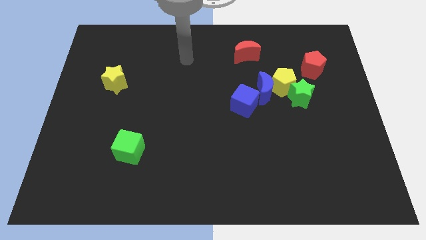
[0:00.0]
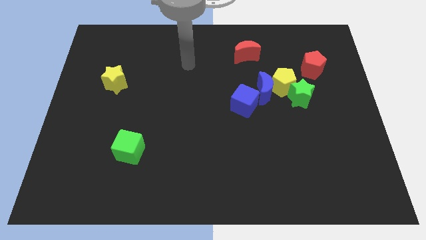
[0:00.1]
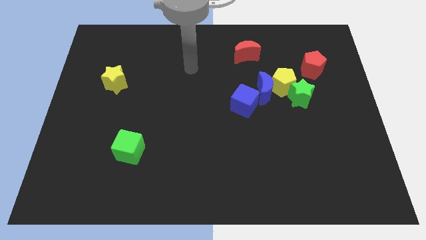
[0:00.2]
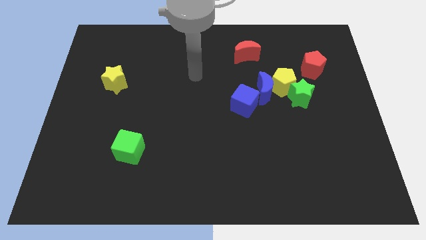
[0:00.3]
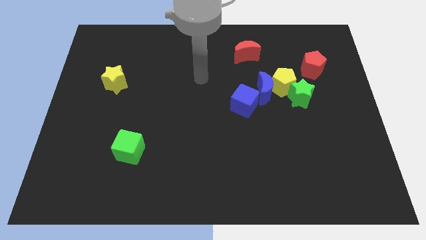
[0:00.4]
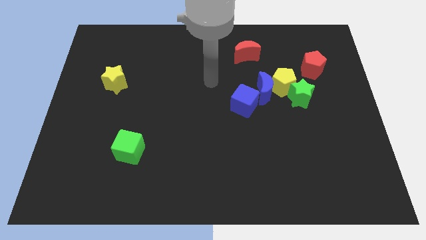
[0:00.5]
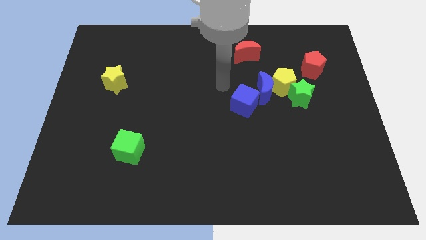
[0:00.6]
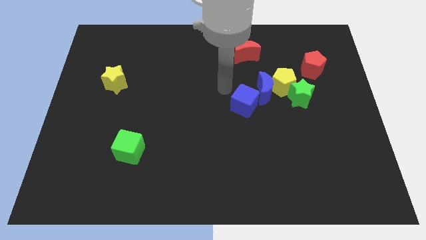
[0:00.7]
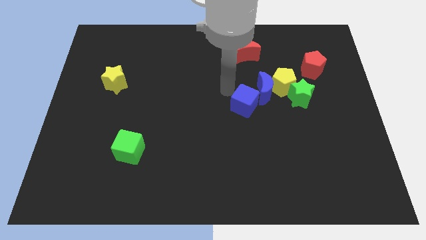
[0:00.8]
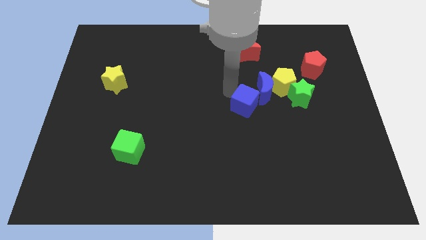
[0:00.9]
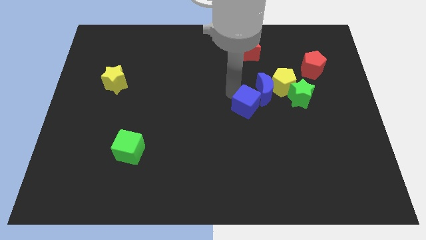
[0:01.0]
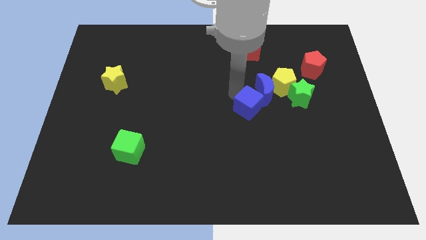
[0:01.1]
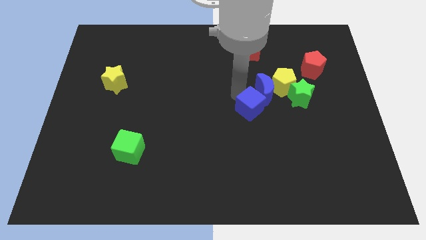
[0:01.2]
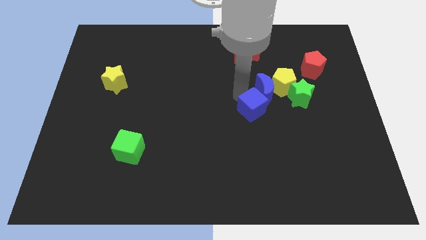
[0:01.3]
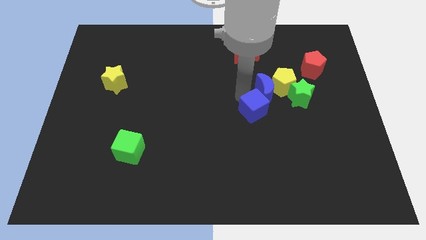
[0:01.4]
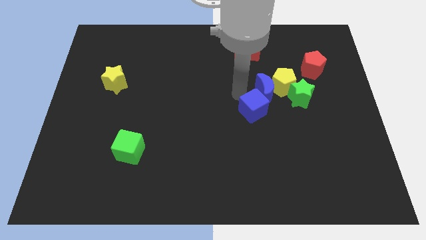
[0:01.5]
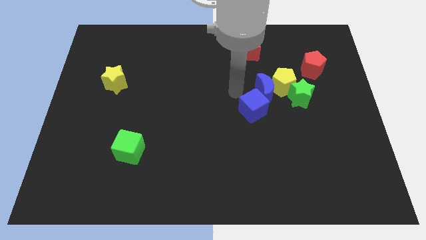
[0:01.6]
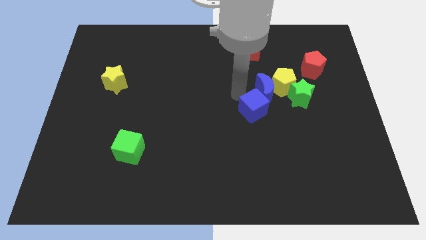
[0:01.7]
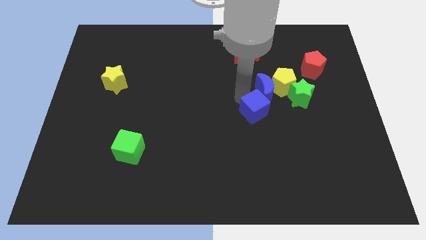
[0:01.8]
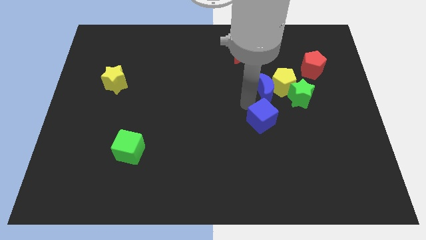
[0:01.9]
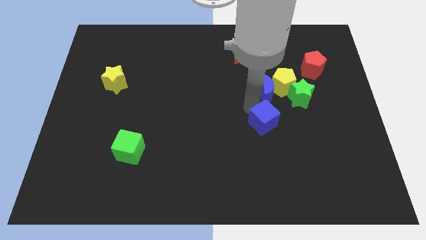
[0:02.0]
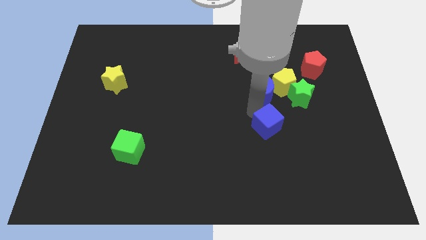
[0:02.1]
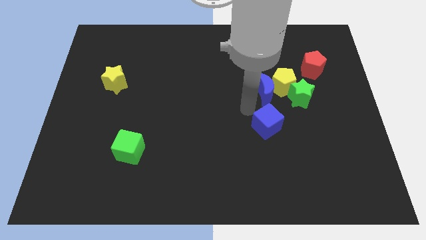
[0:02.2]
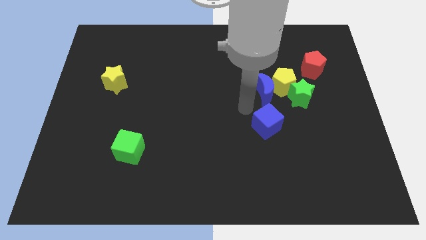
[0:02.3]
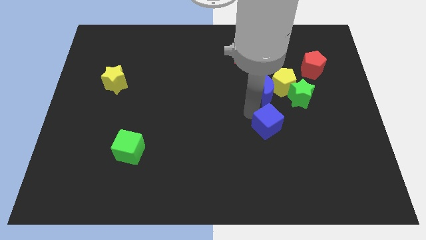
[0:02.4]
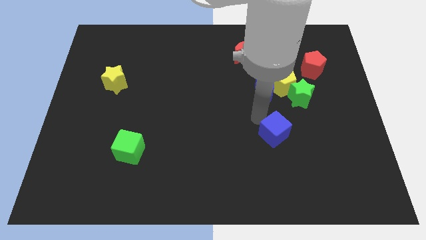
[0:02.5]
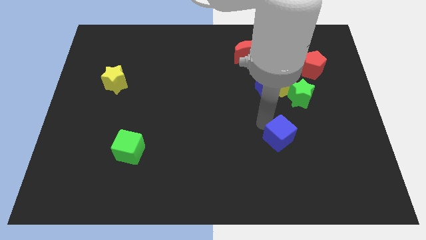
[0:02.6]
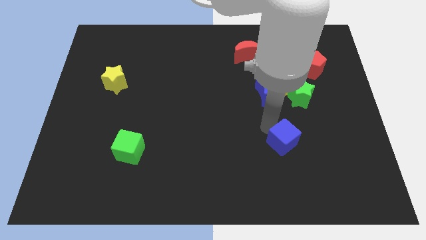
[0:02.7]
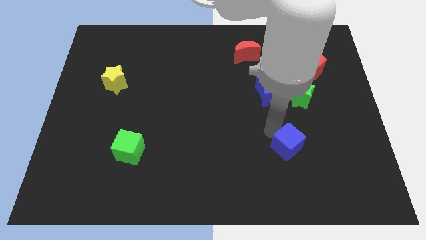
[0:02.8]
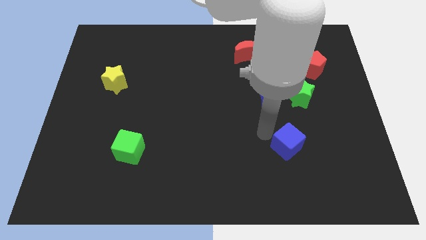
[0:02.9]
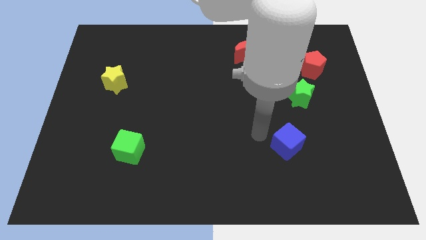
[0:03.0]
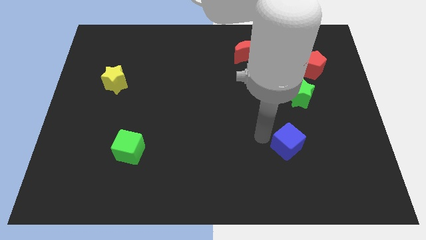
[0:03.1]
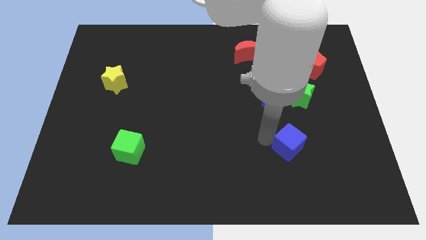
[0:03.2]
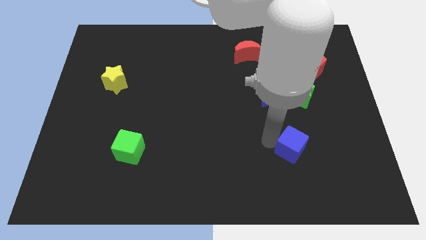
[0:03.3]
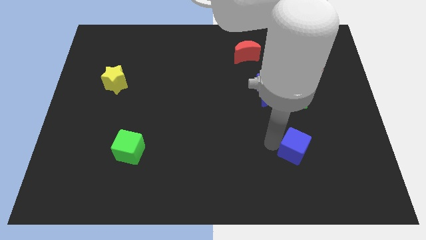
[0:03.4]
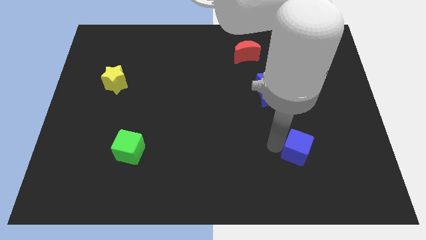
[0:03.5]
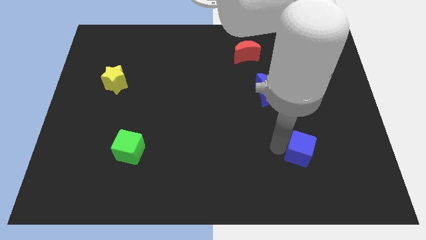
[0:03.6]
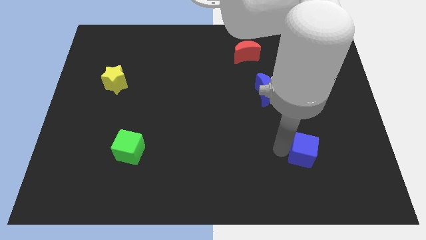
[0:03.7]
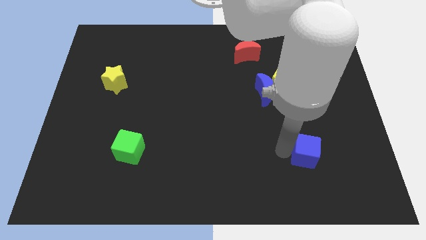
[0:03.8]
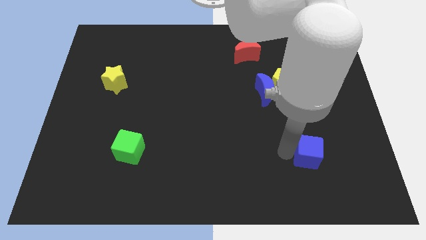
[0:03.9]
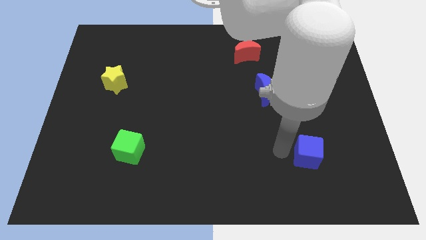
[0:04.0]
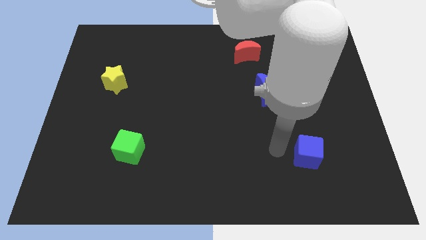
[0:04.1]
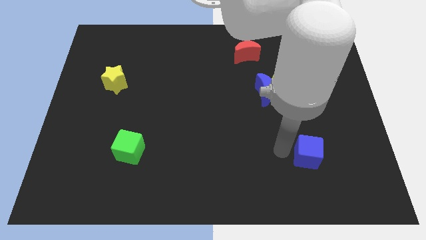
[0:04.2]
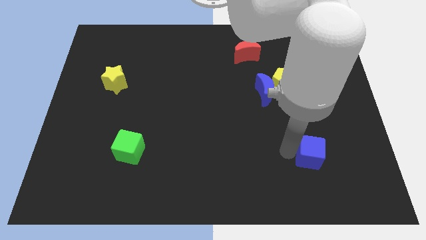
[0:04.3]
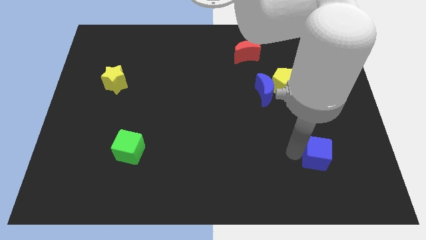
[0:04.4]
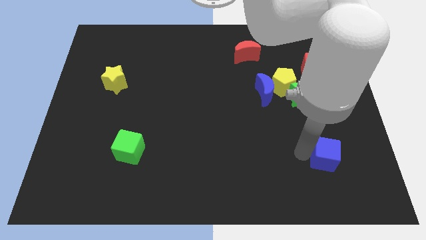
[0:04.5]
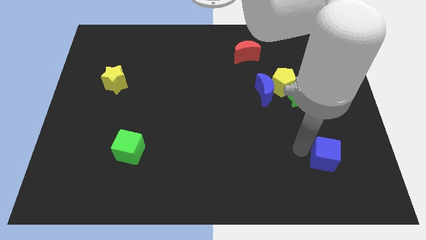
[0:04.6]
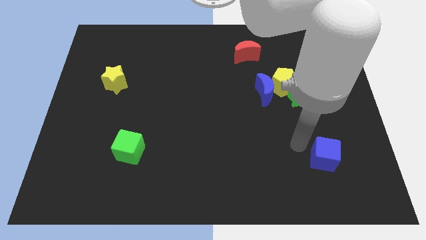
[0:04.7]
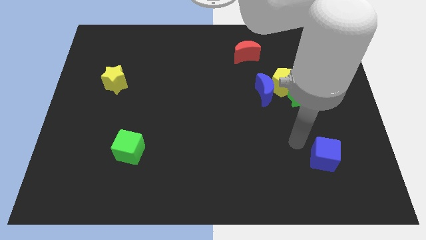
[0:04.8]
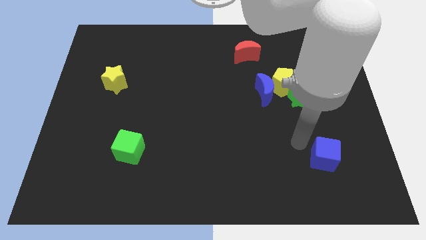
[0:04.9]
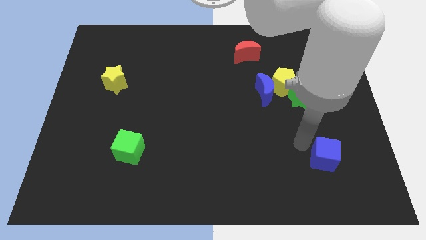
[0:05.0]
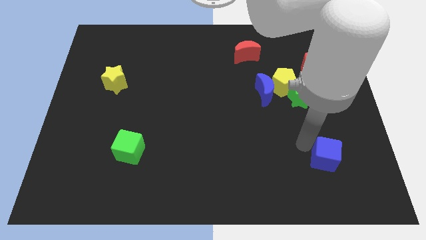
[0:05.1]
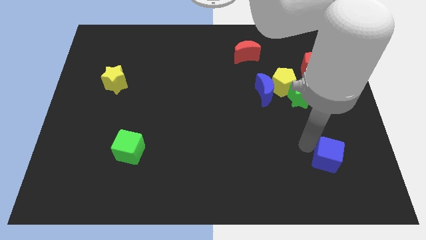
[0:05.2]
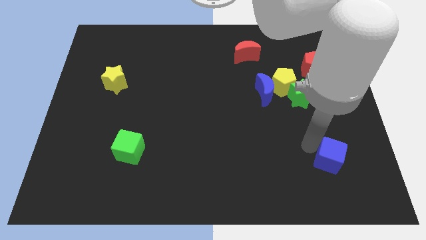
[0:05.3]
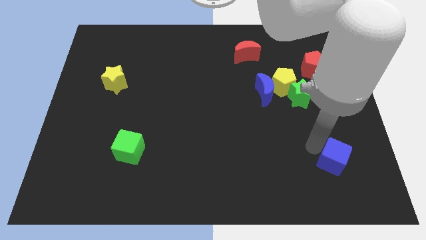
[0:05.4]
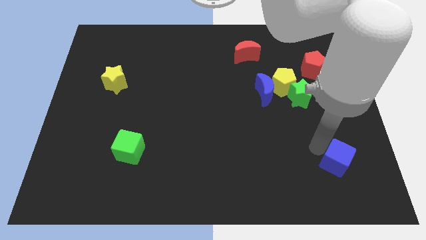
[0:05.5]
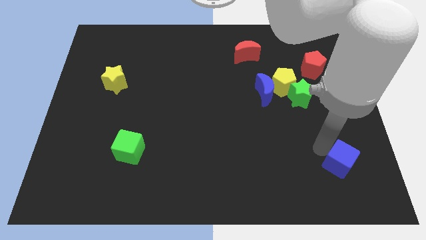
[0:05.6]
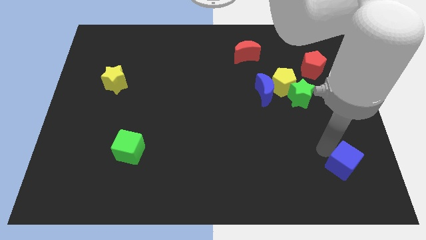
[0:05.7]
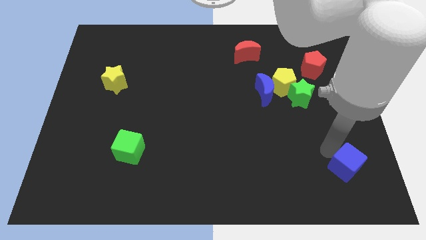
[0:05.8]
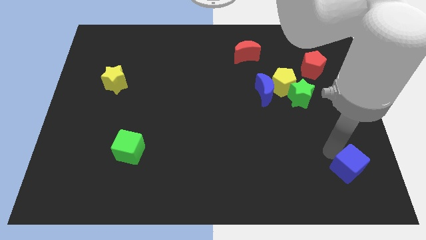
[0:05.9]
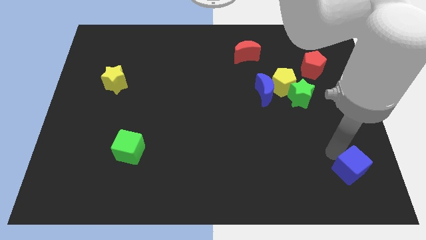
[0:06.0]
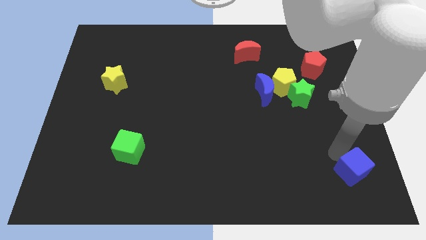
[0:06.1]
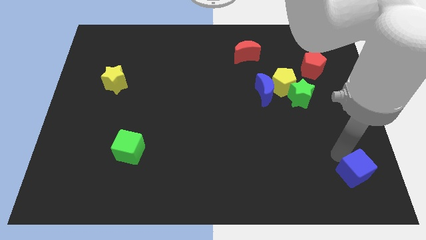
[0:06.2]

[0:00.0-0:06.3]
push the blue cube to the bottom right

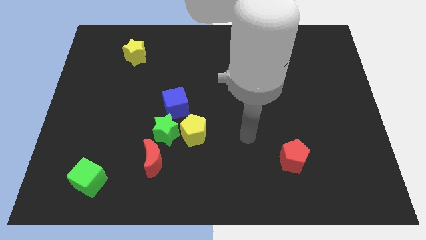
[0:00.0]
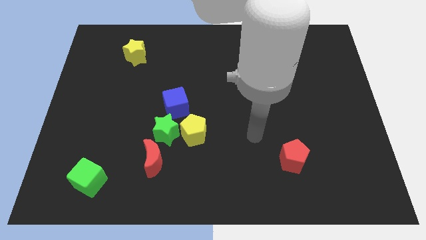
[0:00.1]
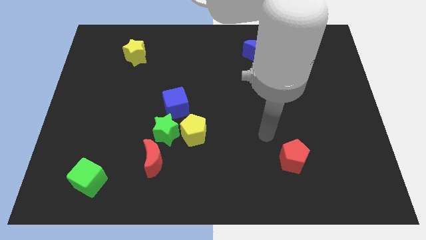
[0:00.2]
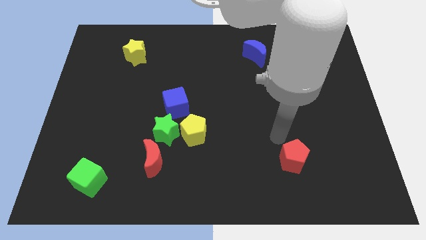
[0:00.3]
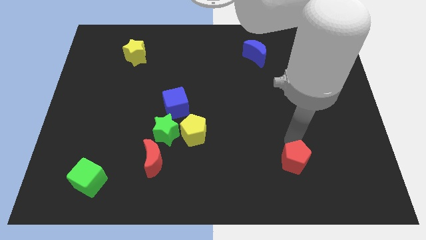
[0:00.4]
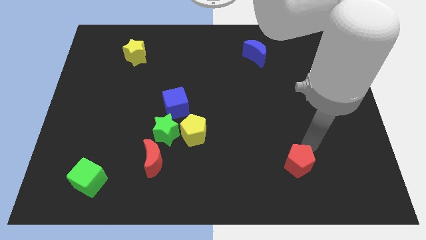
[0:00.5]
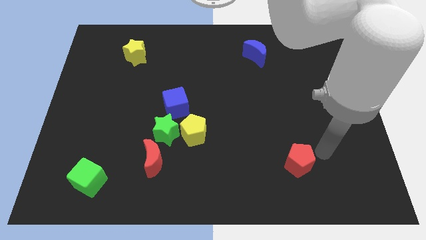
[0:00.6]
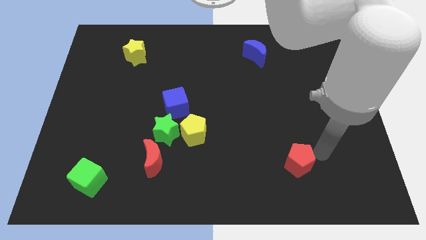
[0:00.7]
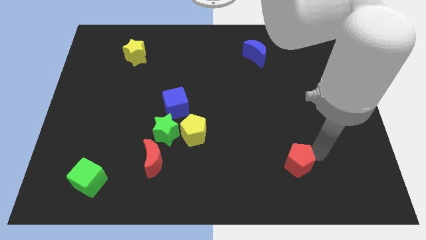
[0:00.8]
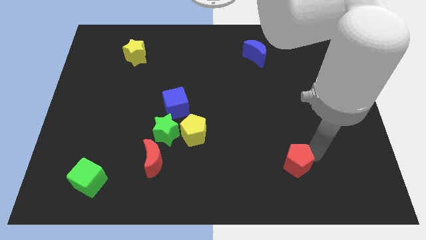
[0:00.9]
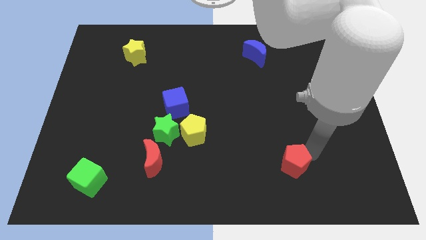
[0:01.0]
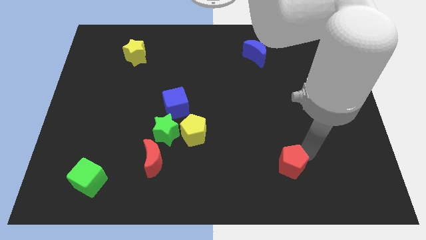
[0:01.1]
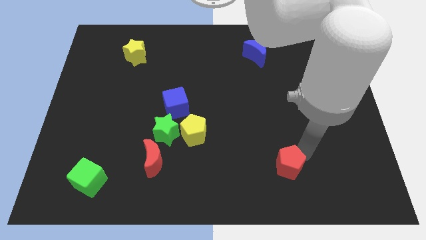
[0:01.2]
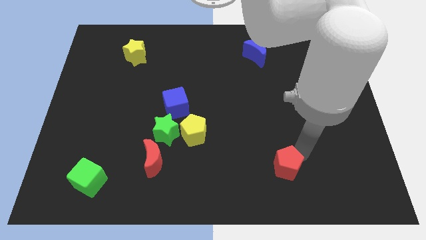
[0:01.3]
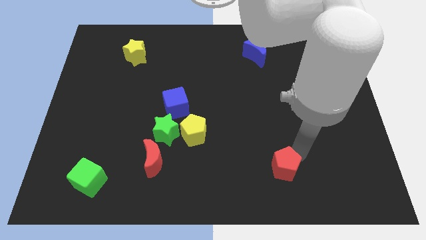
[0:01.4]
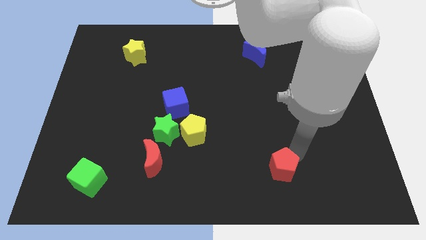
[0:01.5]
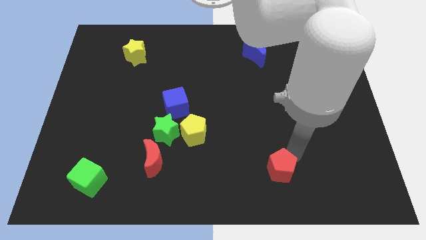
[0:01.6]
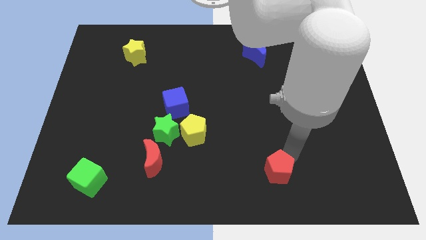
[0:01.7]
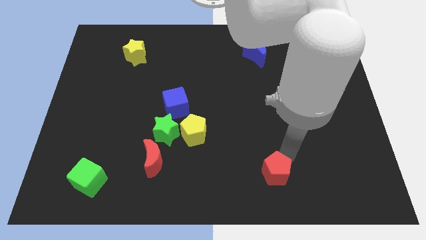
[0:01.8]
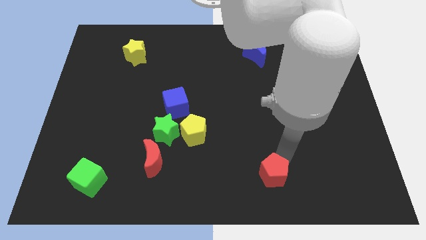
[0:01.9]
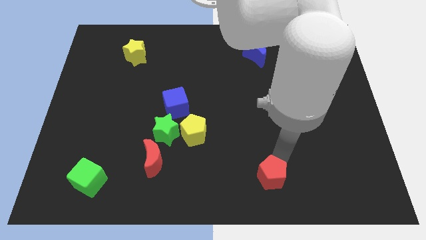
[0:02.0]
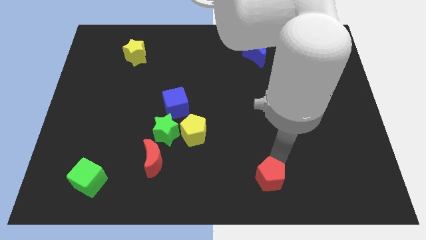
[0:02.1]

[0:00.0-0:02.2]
slide the red pentagon to the bottom
